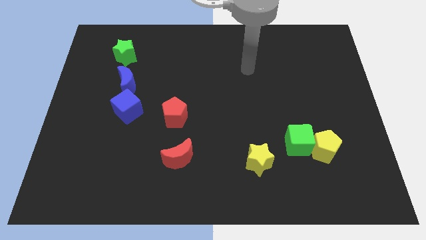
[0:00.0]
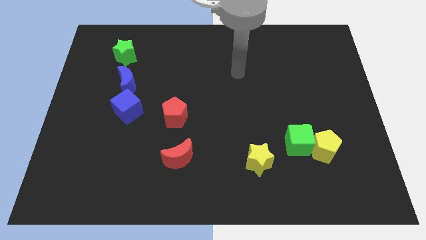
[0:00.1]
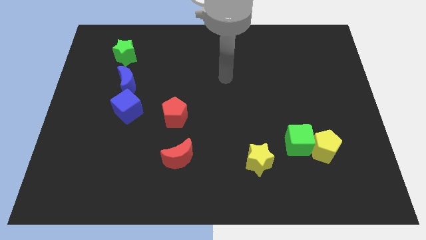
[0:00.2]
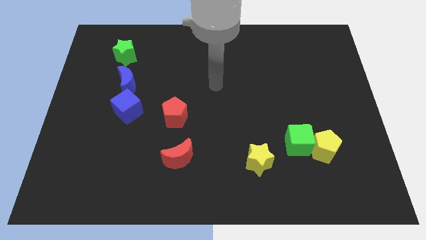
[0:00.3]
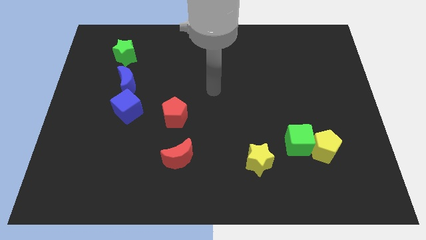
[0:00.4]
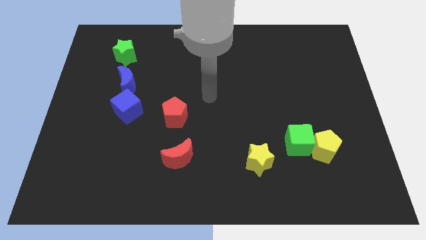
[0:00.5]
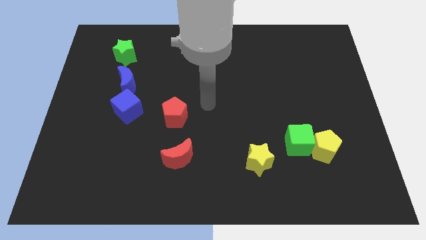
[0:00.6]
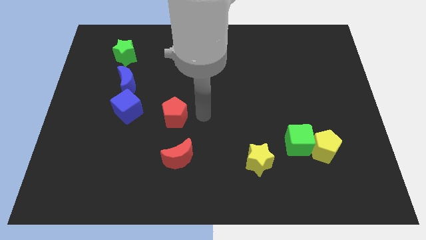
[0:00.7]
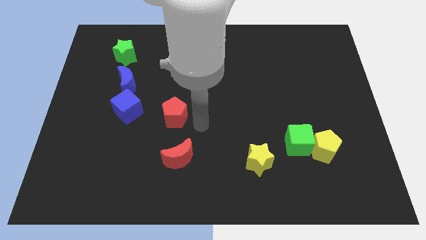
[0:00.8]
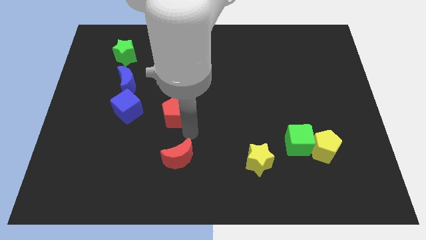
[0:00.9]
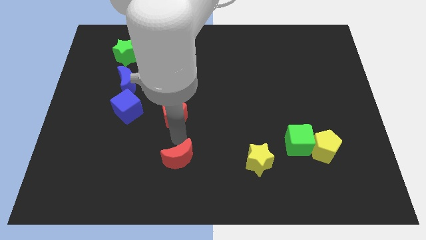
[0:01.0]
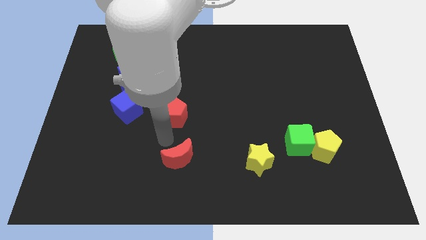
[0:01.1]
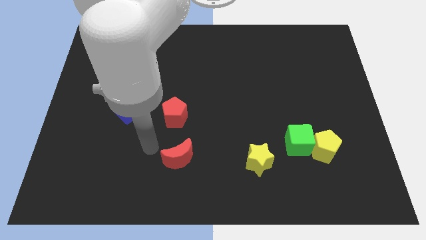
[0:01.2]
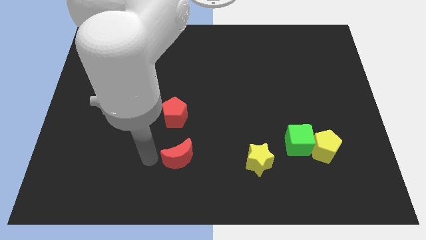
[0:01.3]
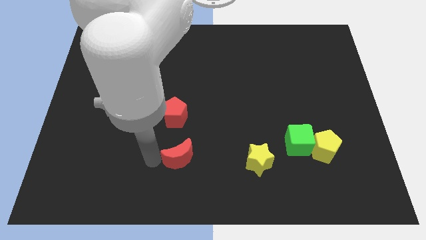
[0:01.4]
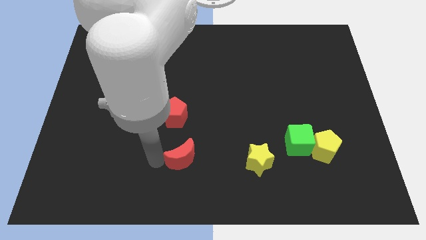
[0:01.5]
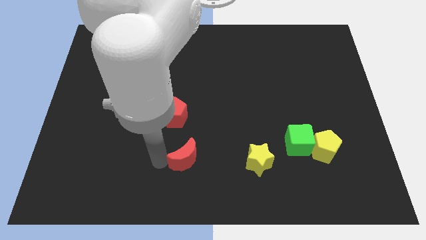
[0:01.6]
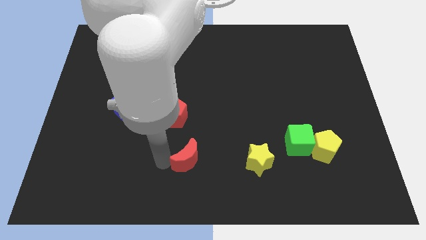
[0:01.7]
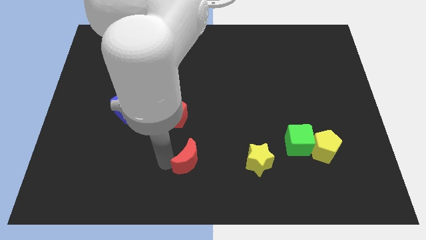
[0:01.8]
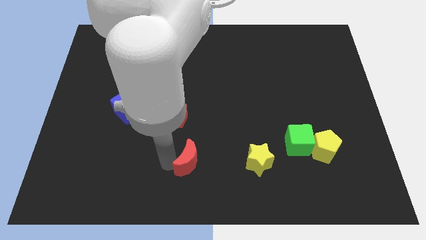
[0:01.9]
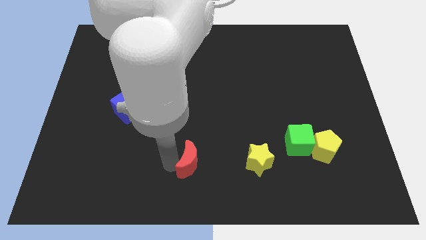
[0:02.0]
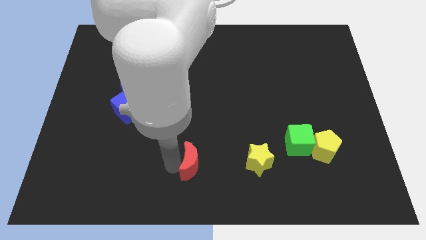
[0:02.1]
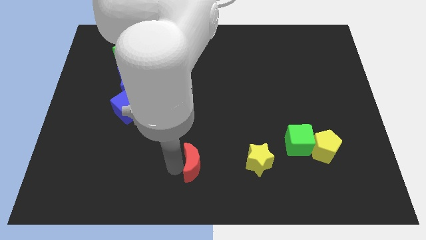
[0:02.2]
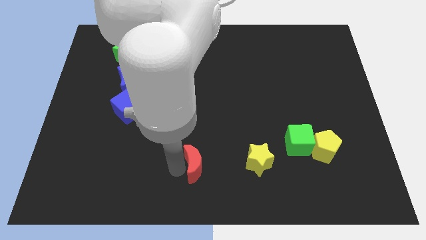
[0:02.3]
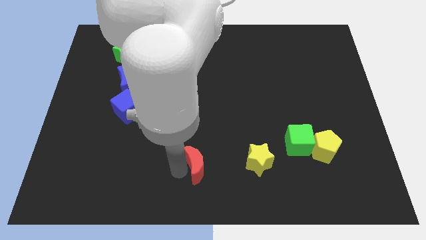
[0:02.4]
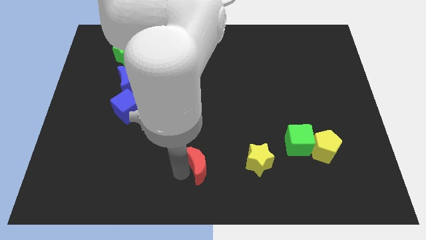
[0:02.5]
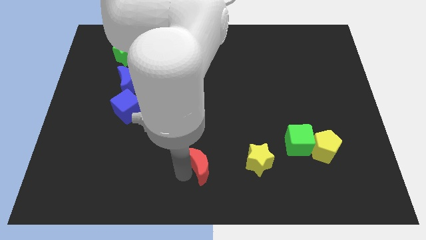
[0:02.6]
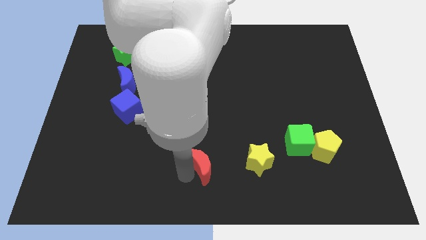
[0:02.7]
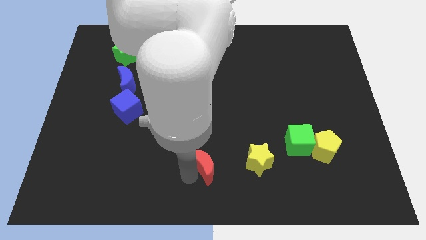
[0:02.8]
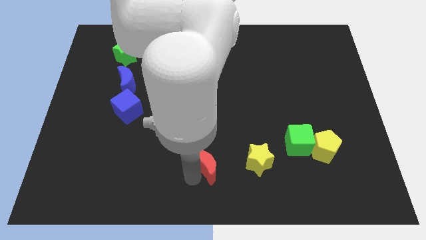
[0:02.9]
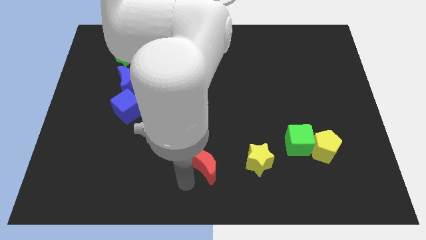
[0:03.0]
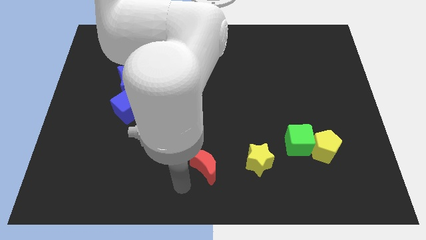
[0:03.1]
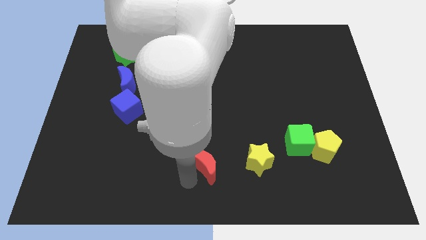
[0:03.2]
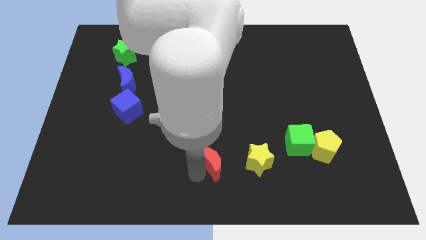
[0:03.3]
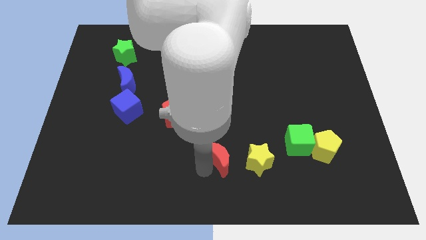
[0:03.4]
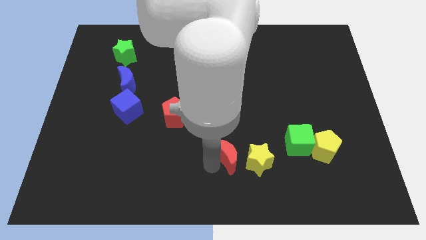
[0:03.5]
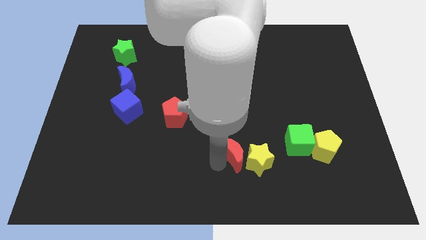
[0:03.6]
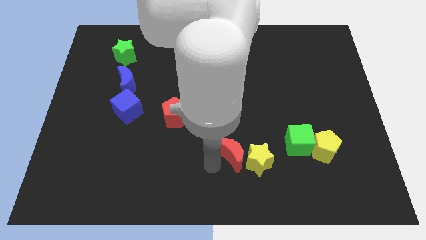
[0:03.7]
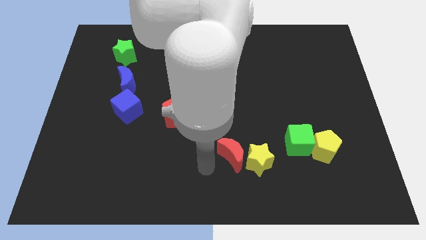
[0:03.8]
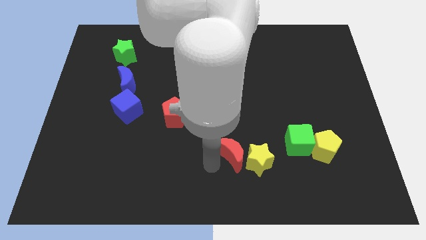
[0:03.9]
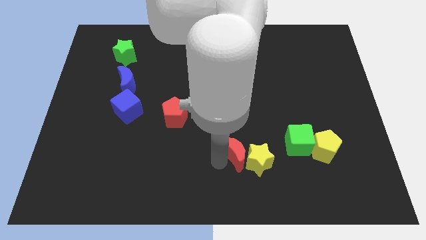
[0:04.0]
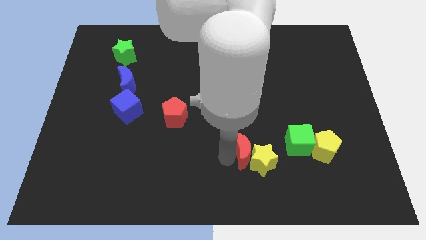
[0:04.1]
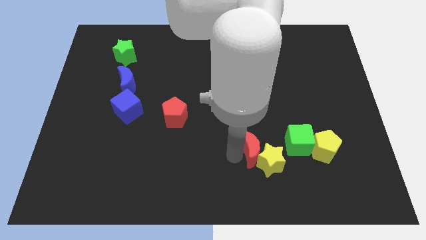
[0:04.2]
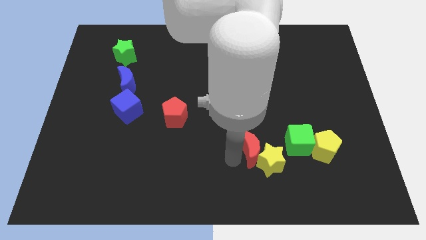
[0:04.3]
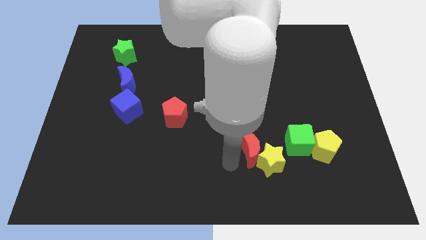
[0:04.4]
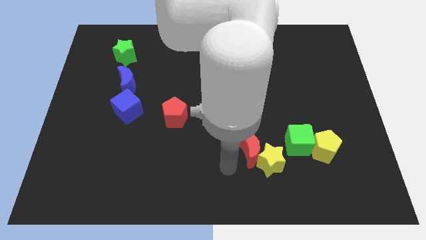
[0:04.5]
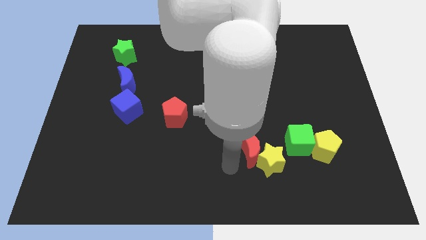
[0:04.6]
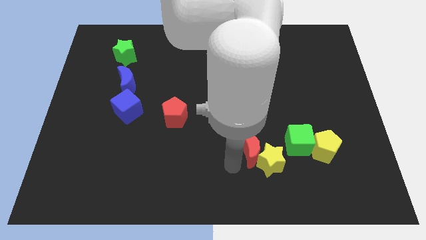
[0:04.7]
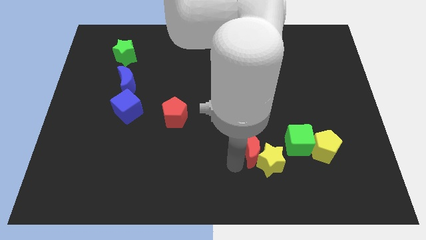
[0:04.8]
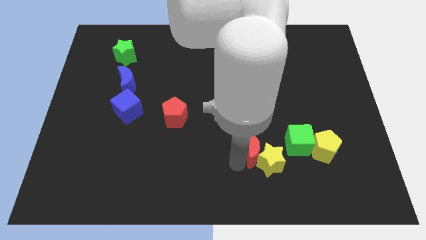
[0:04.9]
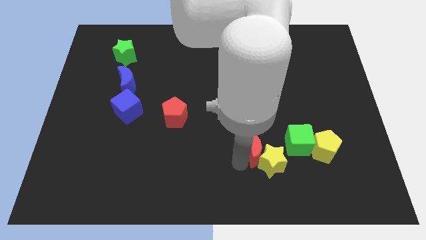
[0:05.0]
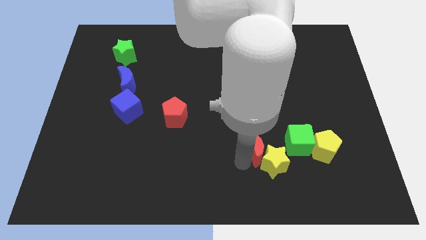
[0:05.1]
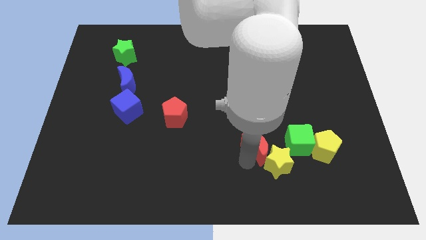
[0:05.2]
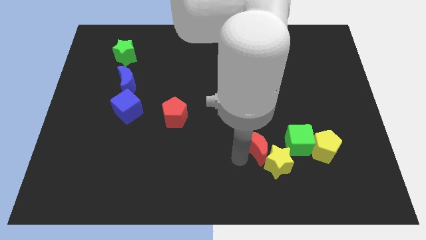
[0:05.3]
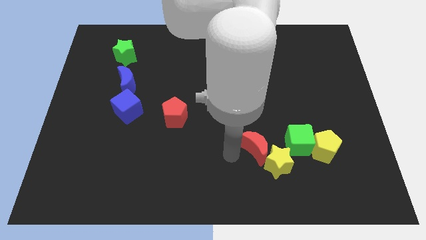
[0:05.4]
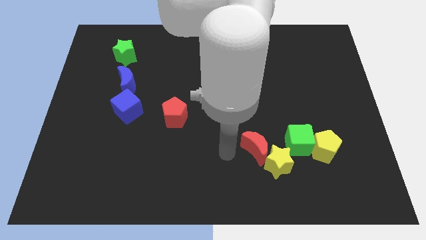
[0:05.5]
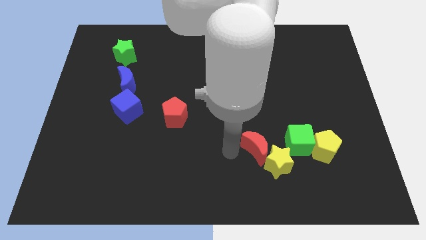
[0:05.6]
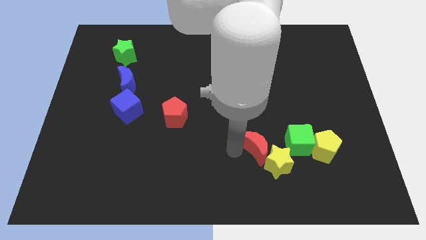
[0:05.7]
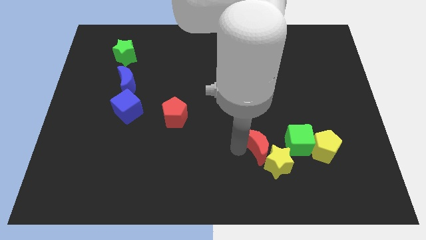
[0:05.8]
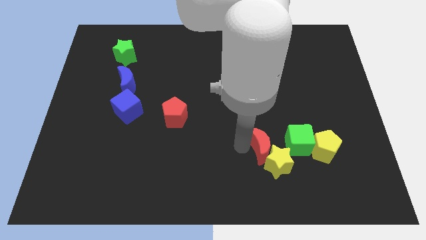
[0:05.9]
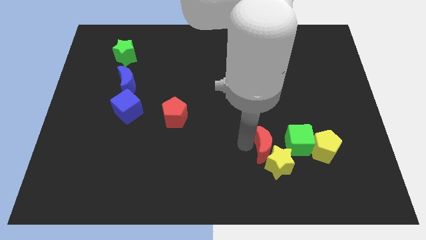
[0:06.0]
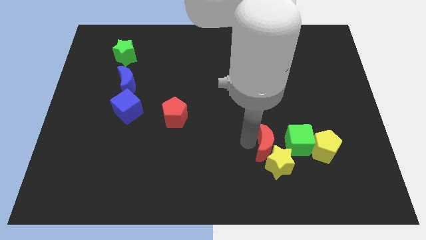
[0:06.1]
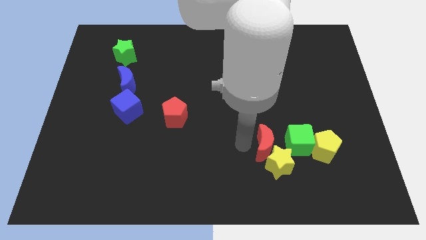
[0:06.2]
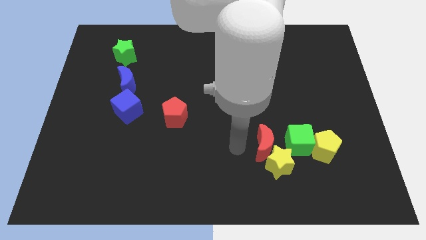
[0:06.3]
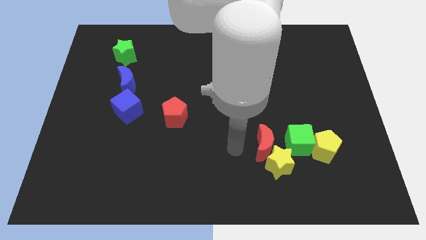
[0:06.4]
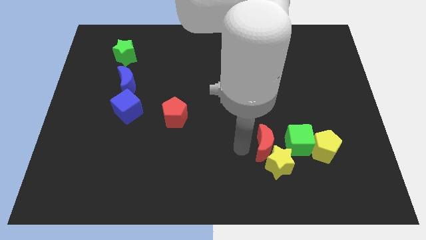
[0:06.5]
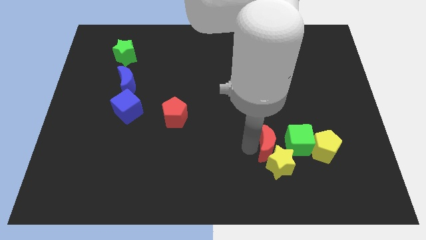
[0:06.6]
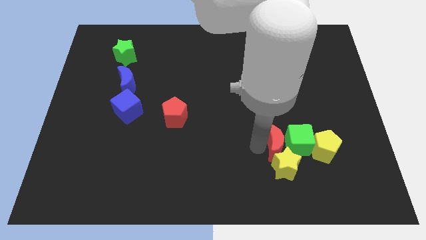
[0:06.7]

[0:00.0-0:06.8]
push the red moon next to the green cube
